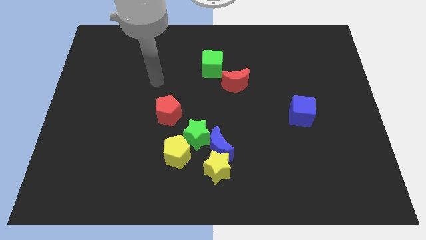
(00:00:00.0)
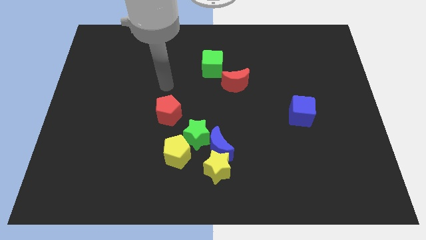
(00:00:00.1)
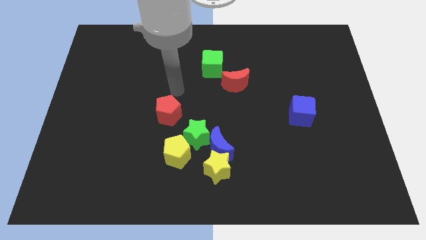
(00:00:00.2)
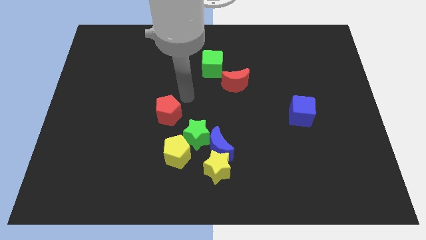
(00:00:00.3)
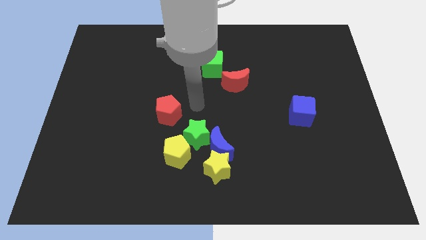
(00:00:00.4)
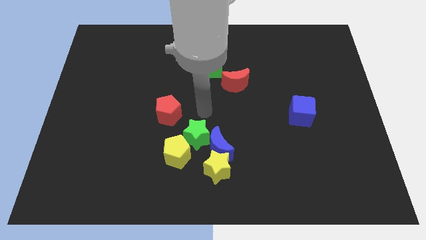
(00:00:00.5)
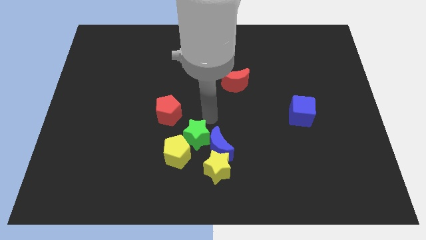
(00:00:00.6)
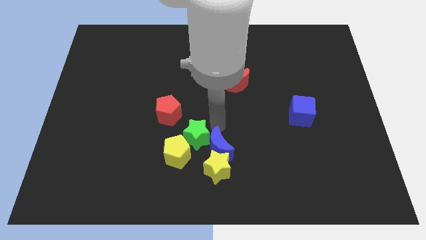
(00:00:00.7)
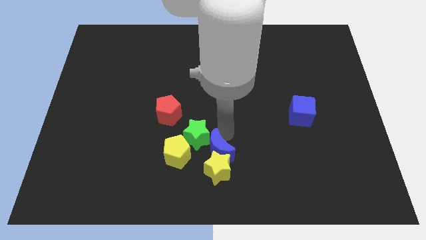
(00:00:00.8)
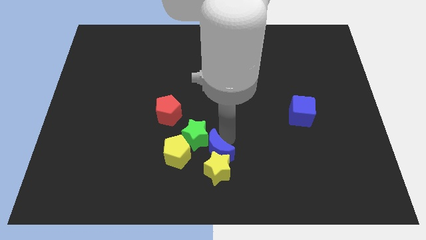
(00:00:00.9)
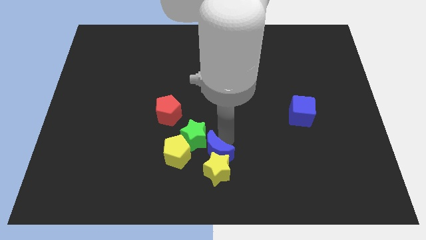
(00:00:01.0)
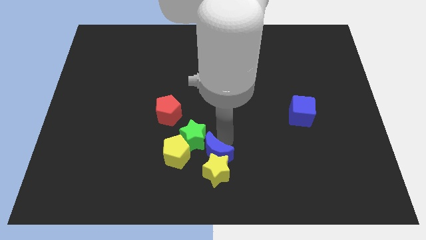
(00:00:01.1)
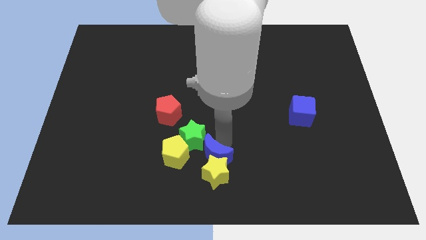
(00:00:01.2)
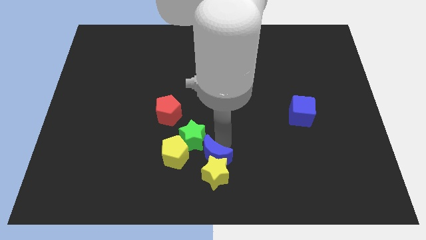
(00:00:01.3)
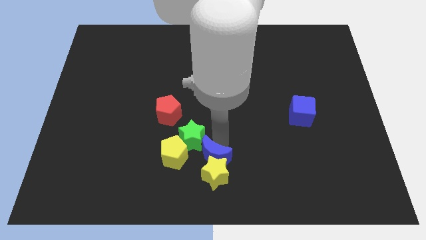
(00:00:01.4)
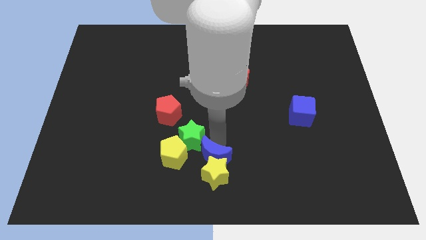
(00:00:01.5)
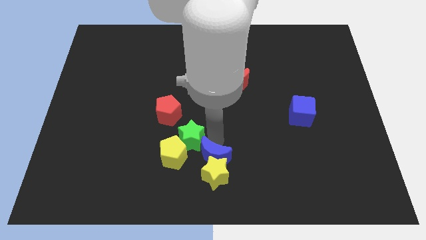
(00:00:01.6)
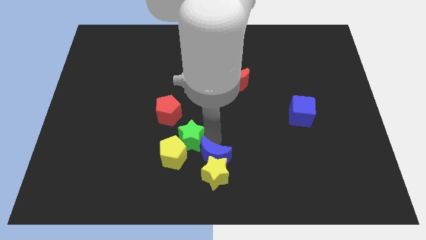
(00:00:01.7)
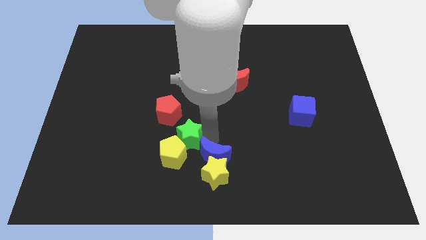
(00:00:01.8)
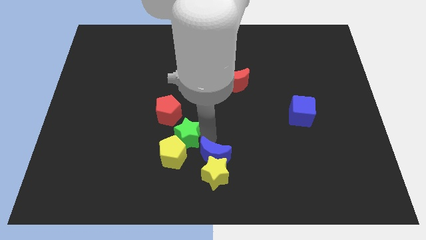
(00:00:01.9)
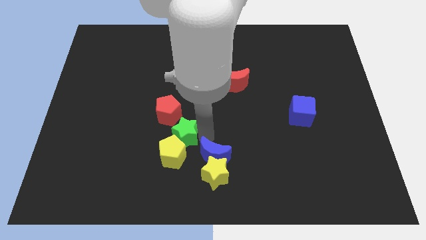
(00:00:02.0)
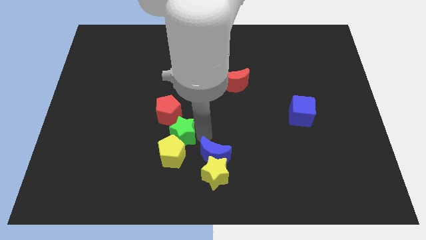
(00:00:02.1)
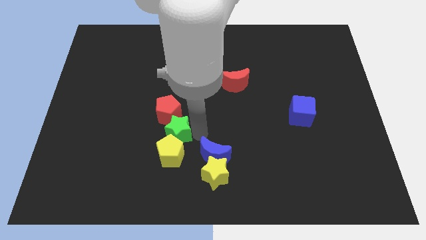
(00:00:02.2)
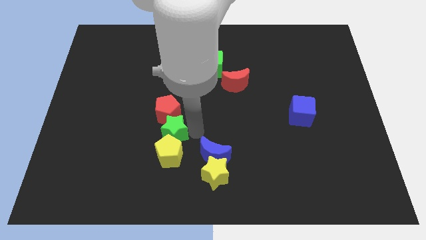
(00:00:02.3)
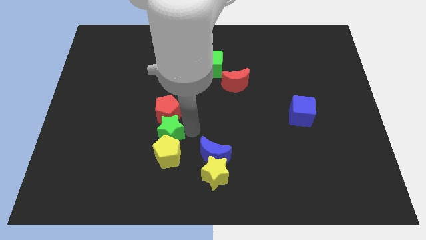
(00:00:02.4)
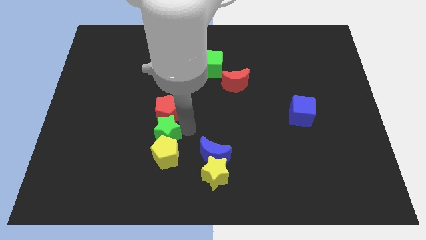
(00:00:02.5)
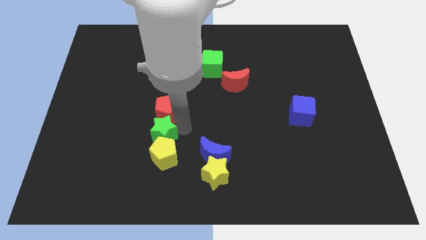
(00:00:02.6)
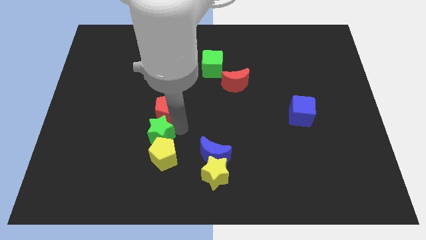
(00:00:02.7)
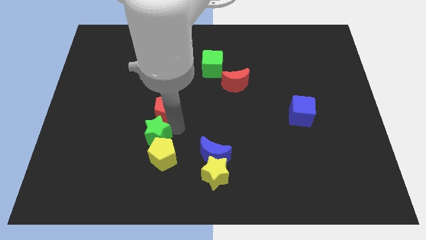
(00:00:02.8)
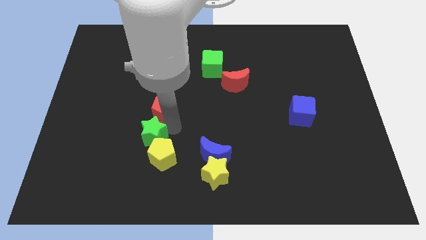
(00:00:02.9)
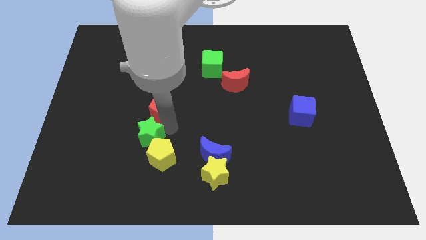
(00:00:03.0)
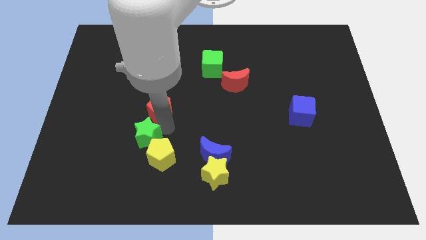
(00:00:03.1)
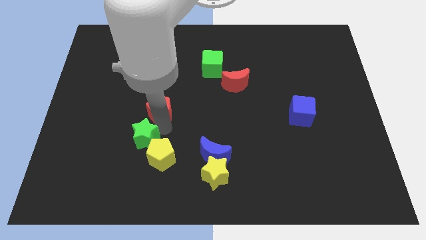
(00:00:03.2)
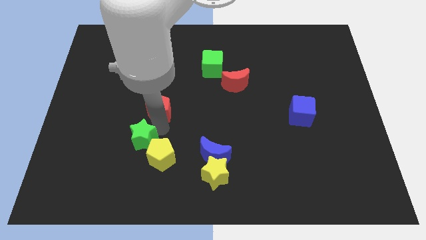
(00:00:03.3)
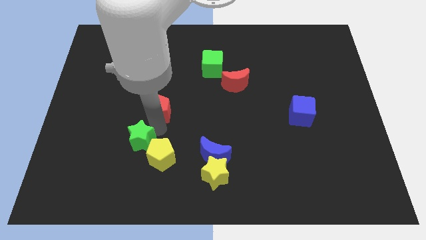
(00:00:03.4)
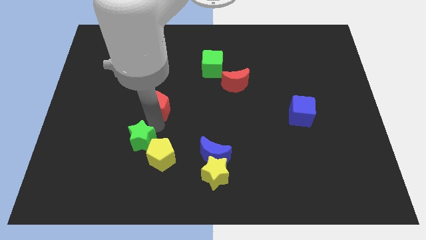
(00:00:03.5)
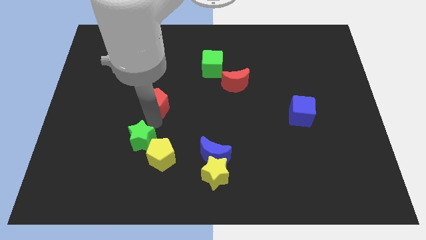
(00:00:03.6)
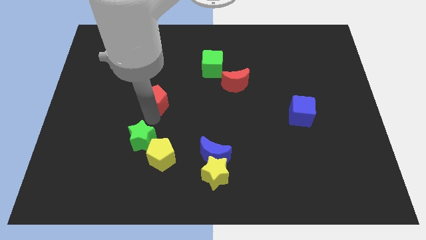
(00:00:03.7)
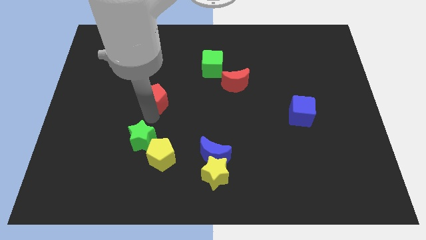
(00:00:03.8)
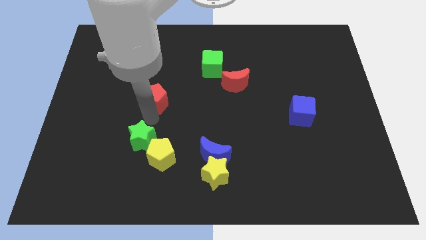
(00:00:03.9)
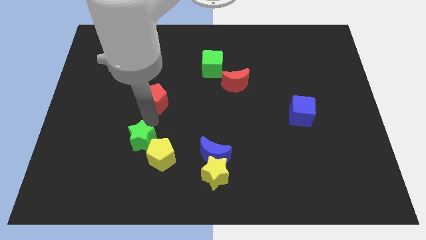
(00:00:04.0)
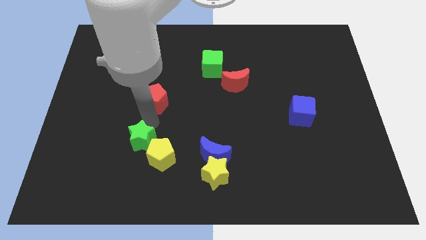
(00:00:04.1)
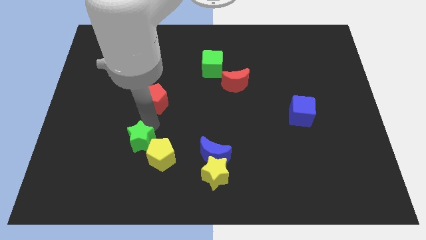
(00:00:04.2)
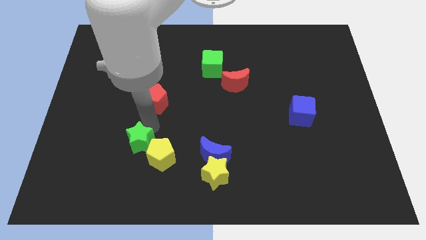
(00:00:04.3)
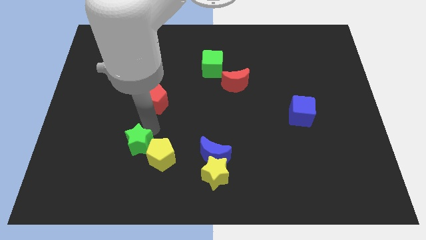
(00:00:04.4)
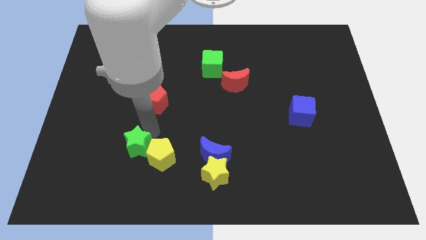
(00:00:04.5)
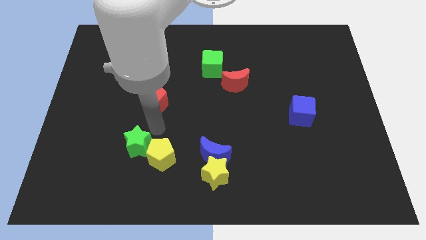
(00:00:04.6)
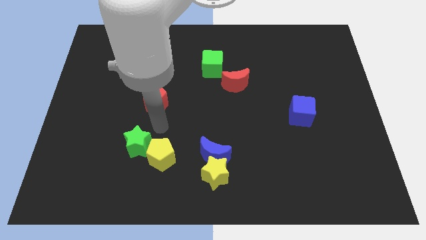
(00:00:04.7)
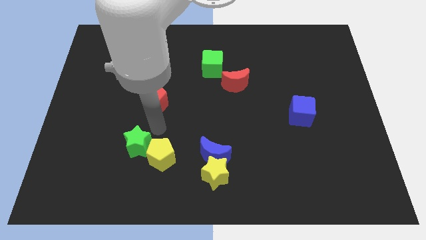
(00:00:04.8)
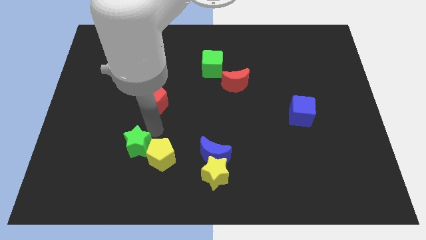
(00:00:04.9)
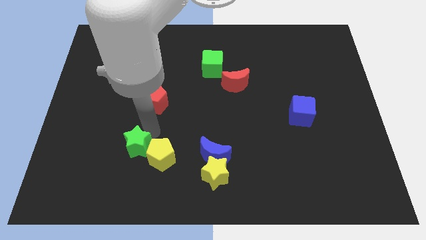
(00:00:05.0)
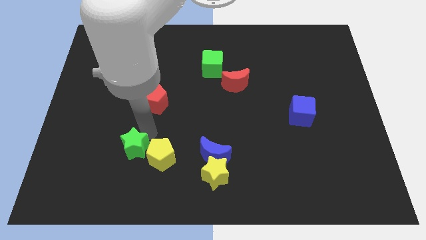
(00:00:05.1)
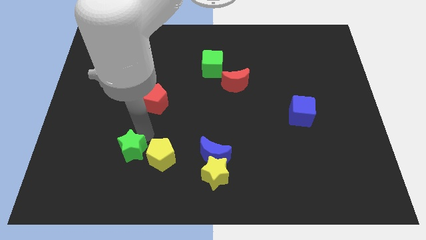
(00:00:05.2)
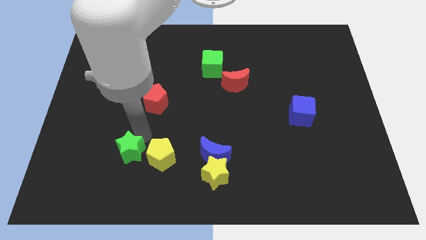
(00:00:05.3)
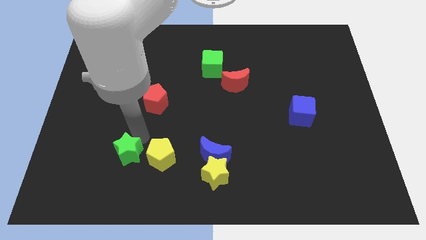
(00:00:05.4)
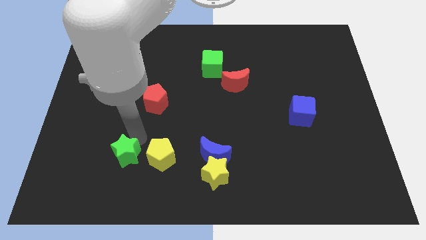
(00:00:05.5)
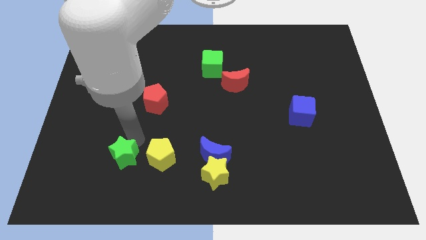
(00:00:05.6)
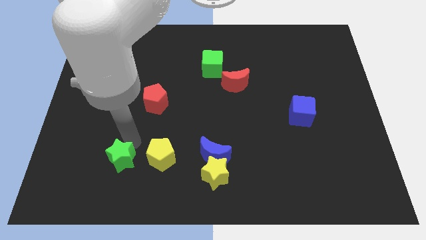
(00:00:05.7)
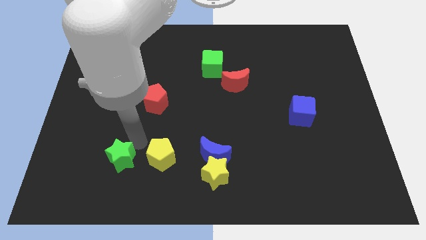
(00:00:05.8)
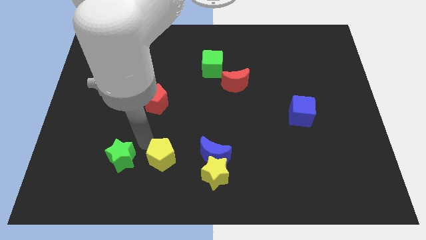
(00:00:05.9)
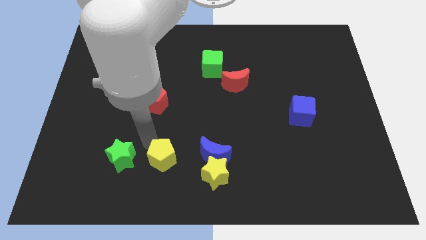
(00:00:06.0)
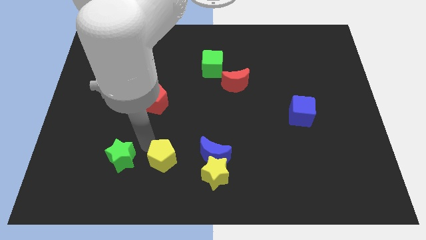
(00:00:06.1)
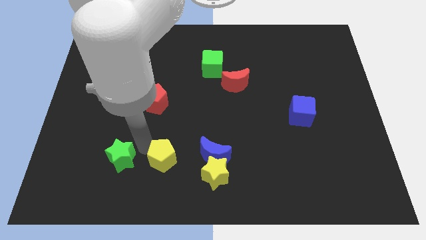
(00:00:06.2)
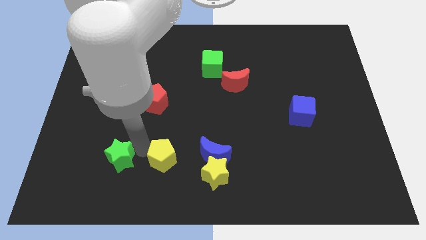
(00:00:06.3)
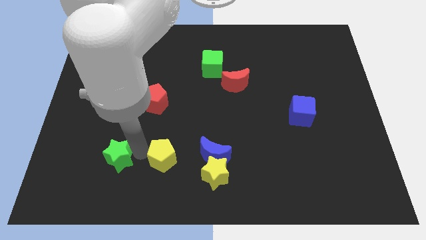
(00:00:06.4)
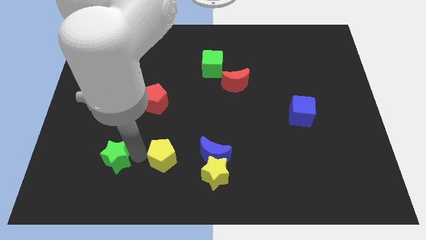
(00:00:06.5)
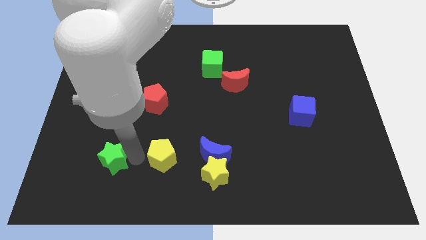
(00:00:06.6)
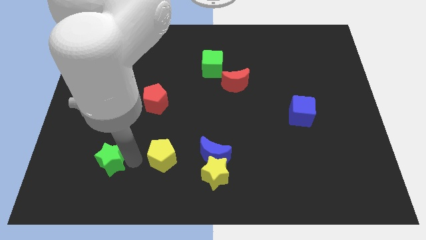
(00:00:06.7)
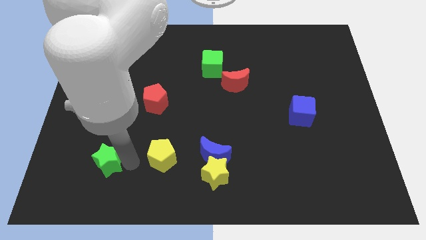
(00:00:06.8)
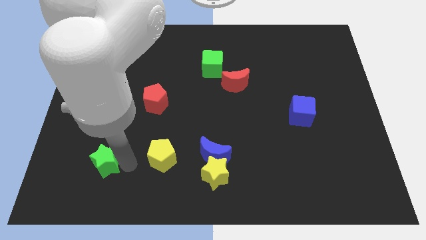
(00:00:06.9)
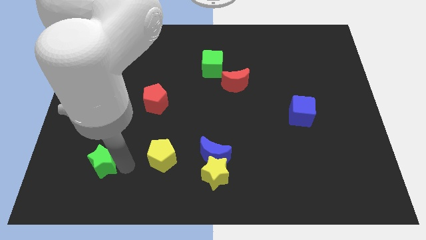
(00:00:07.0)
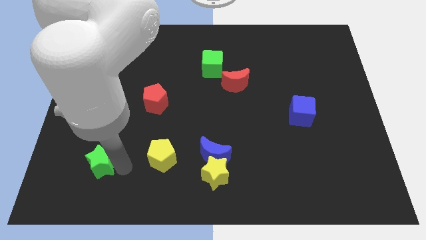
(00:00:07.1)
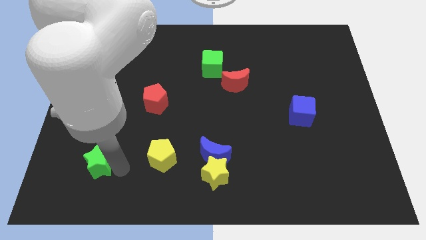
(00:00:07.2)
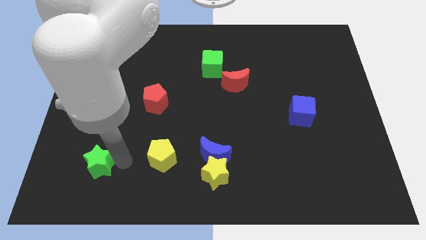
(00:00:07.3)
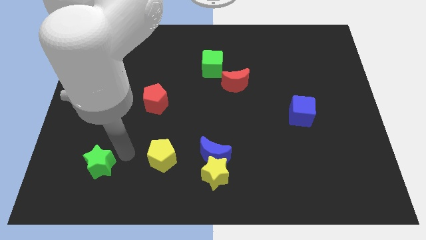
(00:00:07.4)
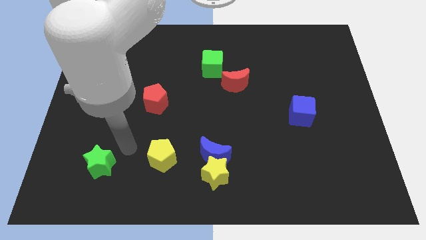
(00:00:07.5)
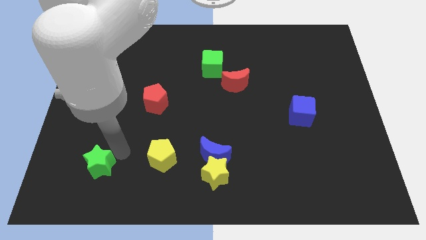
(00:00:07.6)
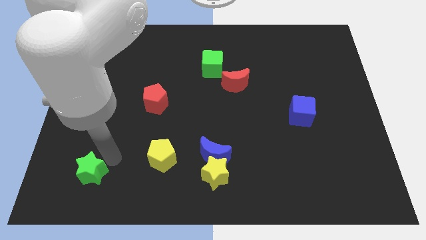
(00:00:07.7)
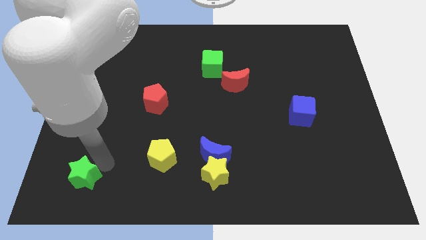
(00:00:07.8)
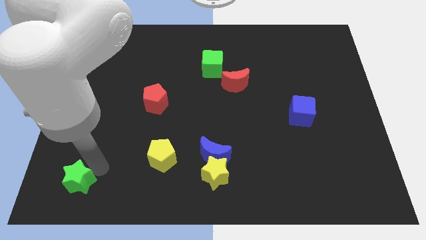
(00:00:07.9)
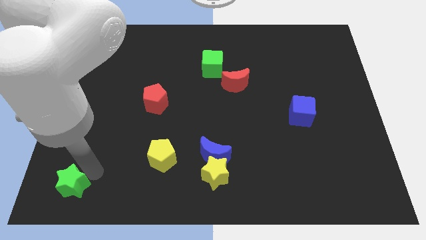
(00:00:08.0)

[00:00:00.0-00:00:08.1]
slide the green star to the lower left corner
